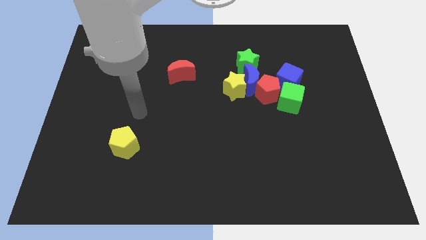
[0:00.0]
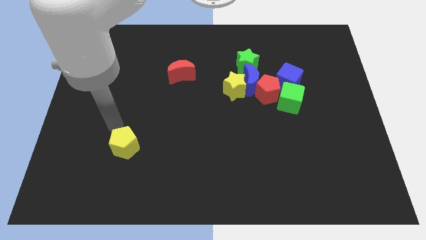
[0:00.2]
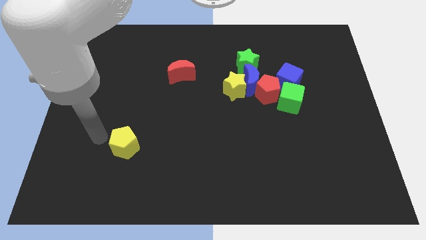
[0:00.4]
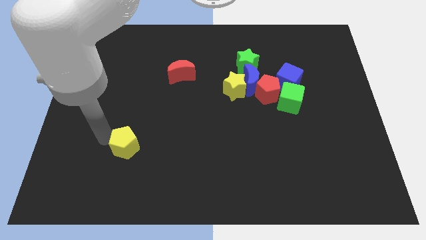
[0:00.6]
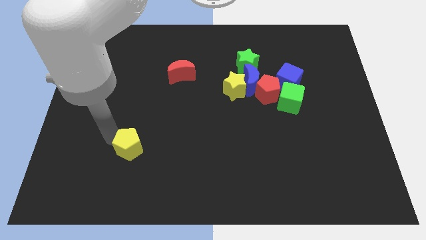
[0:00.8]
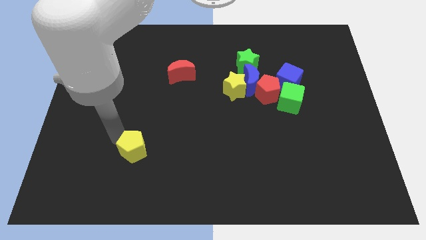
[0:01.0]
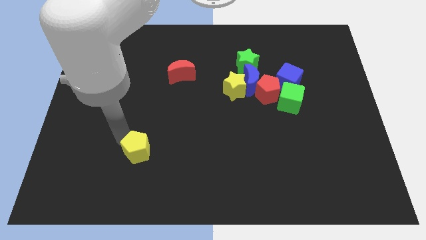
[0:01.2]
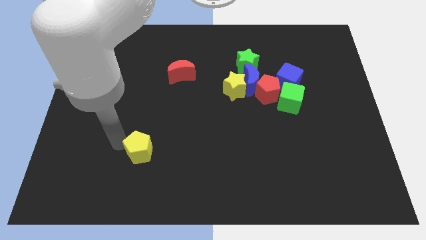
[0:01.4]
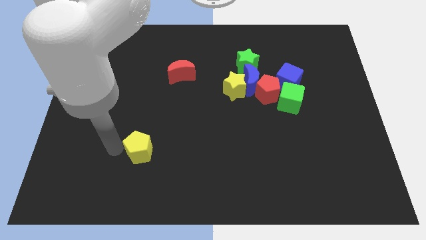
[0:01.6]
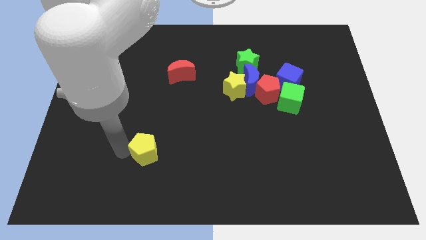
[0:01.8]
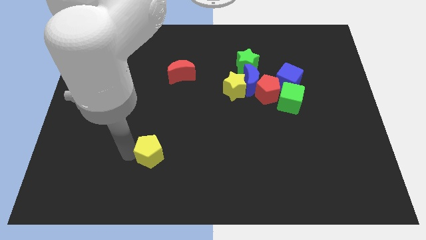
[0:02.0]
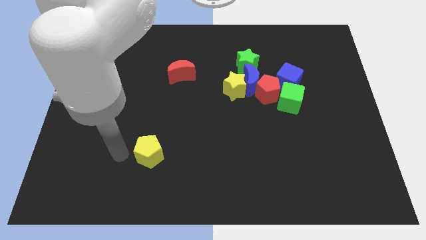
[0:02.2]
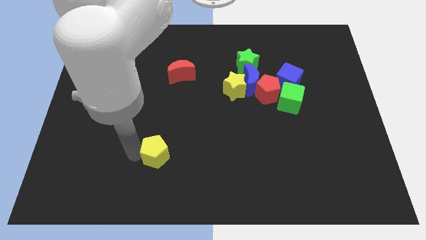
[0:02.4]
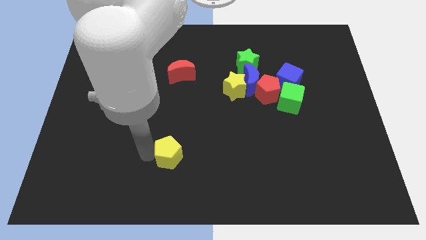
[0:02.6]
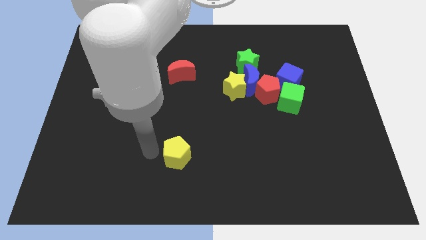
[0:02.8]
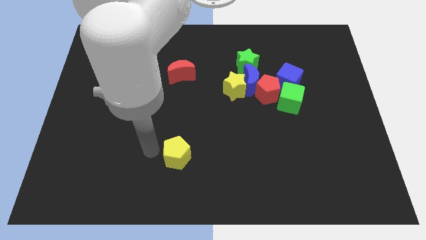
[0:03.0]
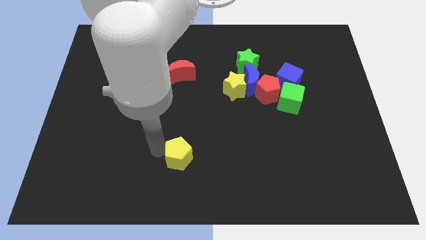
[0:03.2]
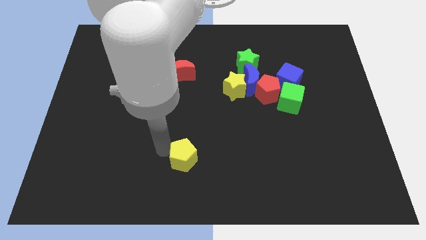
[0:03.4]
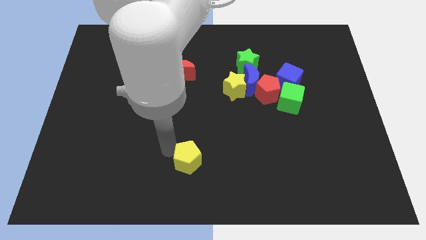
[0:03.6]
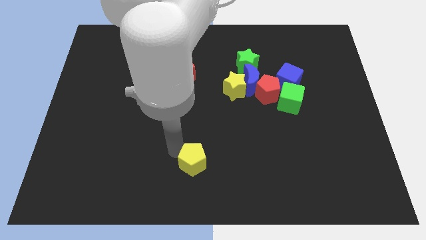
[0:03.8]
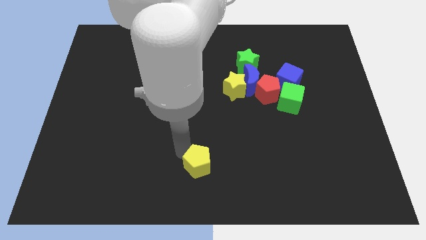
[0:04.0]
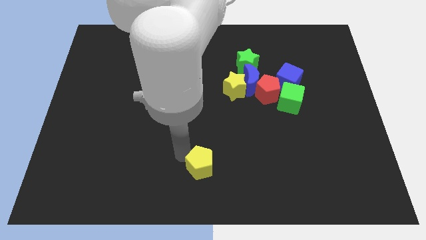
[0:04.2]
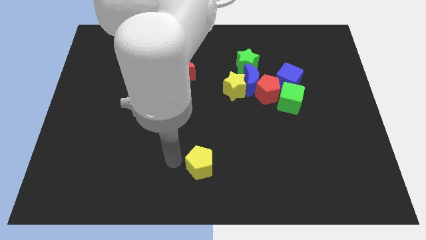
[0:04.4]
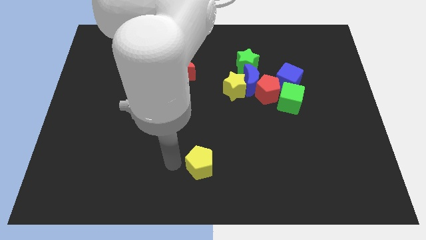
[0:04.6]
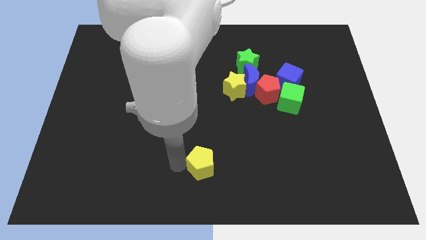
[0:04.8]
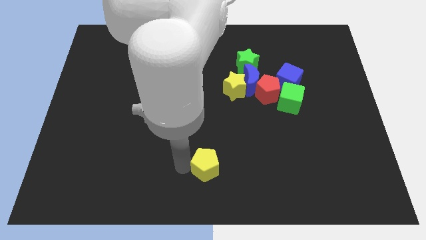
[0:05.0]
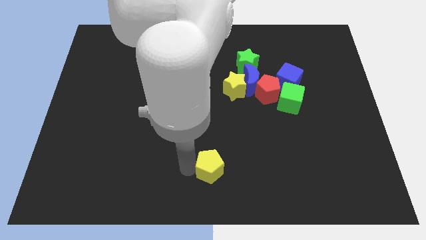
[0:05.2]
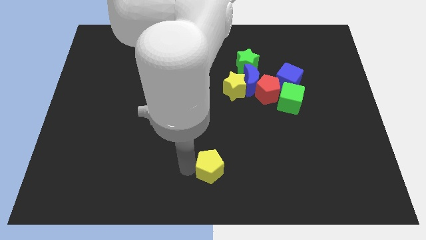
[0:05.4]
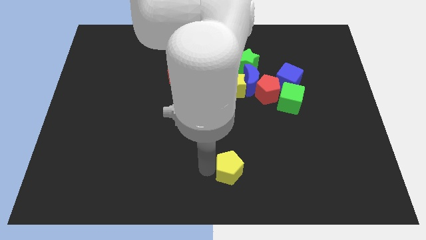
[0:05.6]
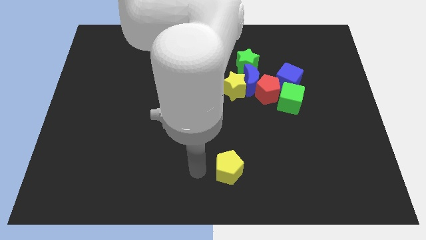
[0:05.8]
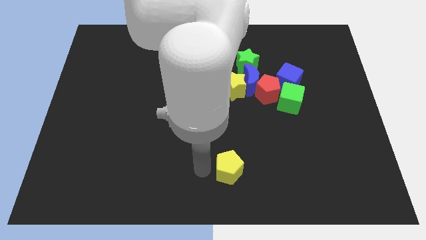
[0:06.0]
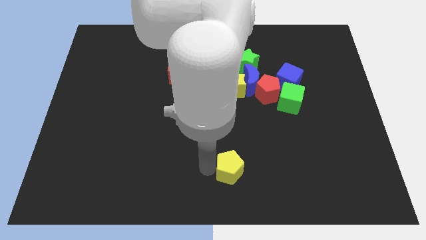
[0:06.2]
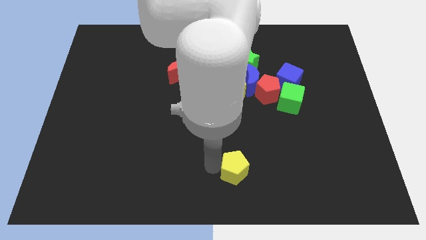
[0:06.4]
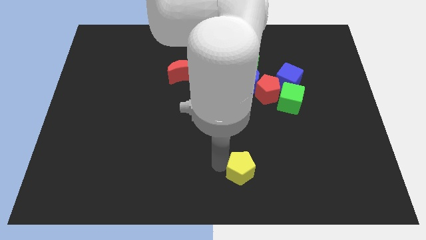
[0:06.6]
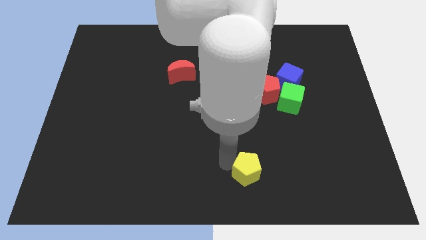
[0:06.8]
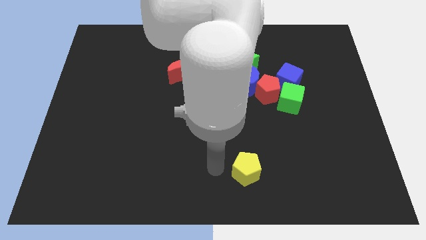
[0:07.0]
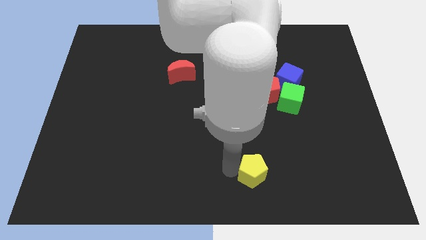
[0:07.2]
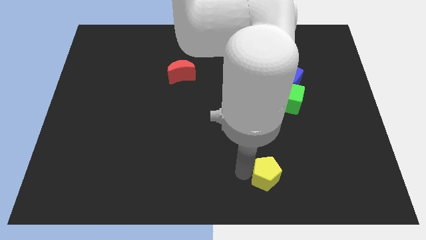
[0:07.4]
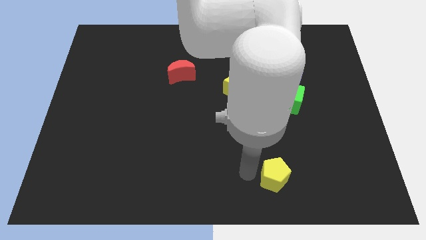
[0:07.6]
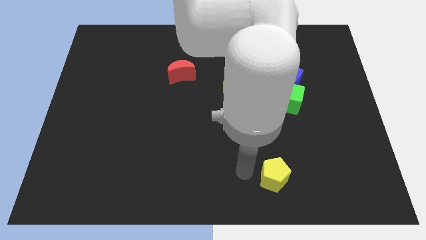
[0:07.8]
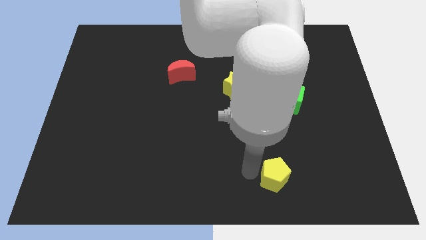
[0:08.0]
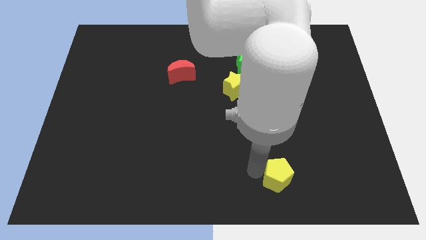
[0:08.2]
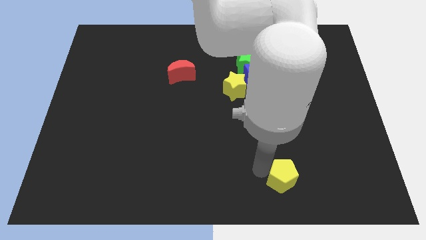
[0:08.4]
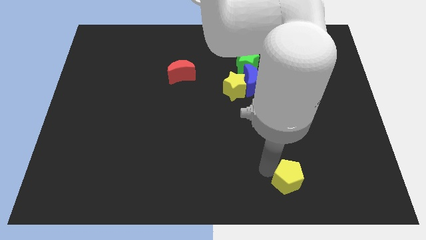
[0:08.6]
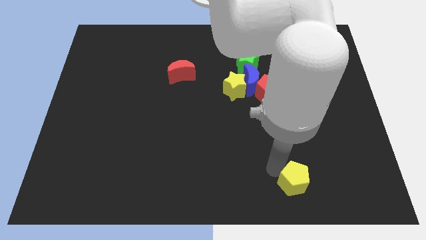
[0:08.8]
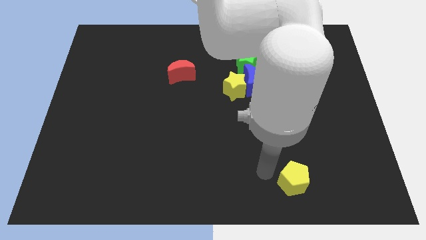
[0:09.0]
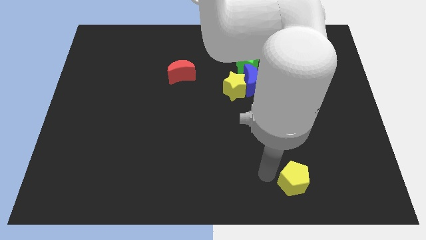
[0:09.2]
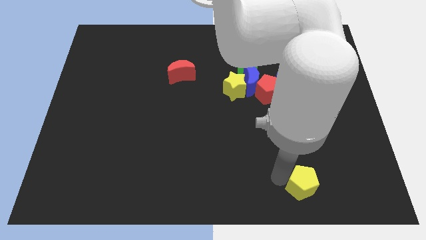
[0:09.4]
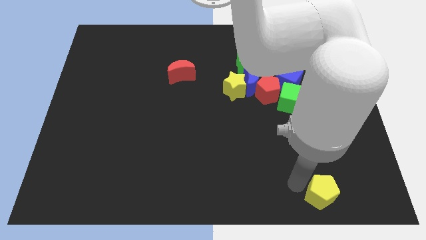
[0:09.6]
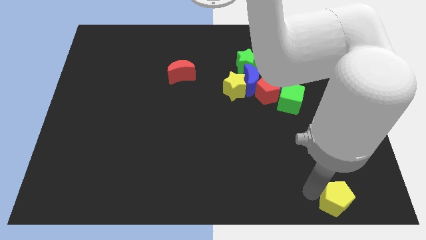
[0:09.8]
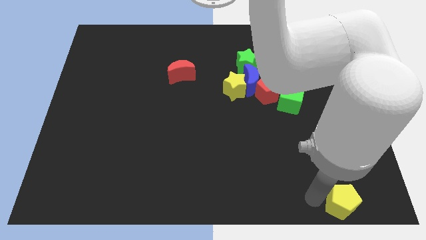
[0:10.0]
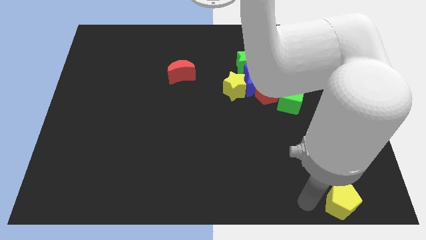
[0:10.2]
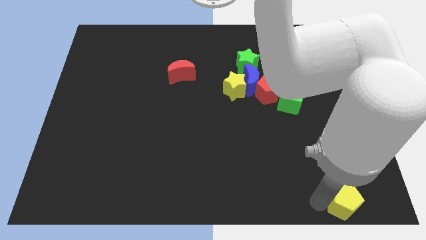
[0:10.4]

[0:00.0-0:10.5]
move the yellow pentagon to the lower right corner

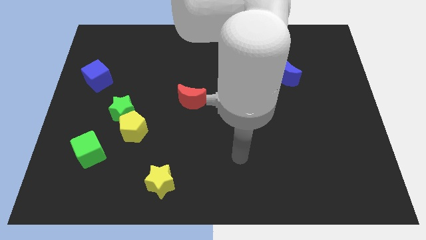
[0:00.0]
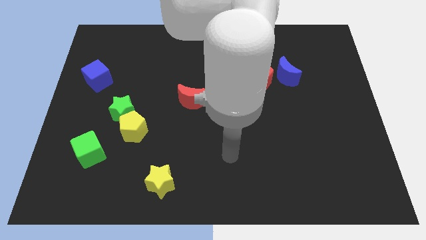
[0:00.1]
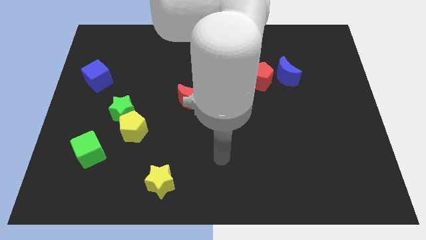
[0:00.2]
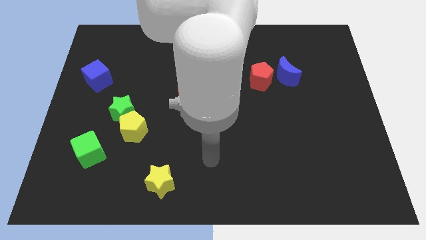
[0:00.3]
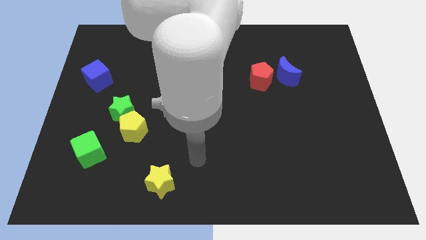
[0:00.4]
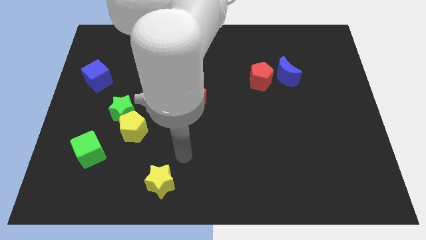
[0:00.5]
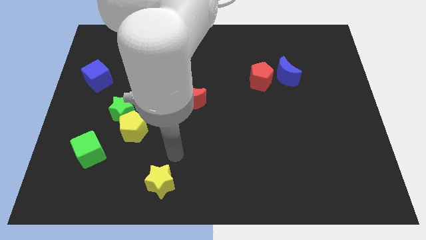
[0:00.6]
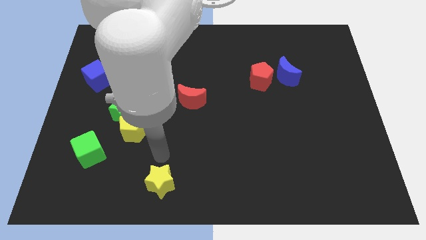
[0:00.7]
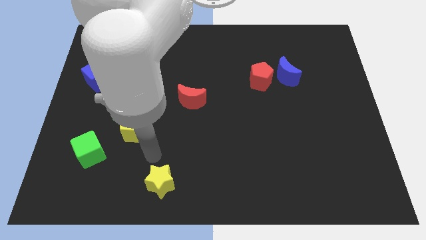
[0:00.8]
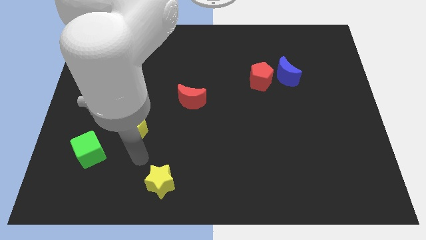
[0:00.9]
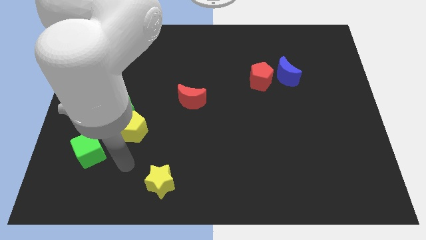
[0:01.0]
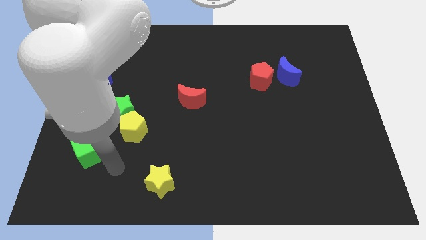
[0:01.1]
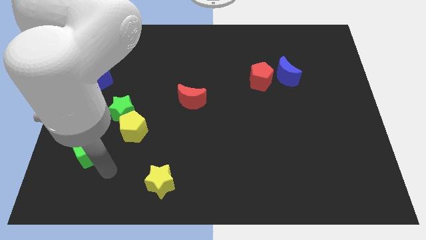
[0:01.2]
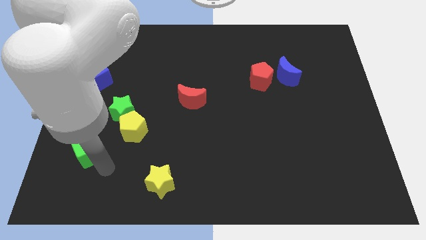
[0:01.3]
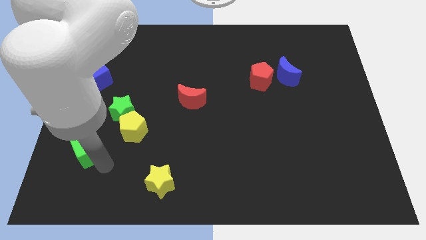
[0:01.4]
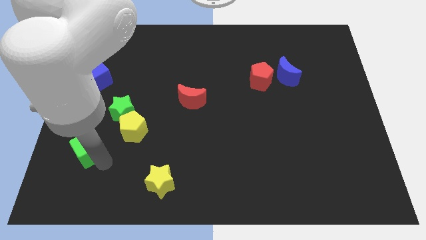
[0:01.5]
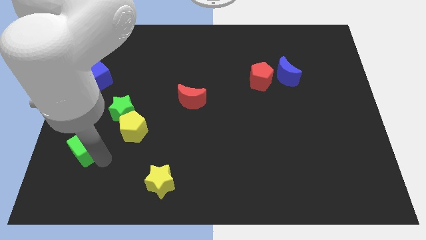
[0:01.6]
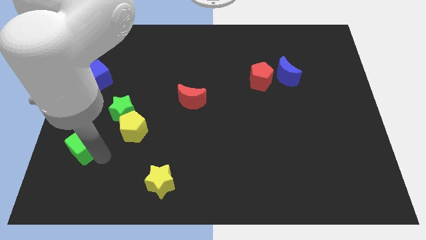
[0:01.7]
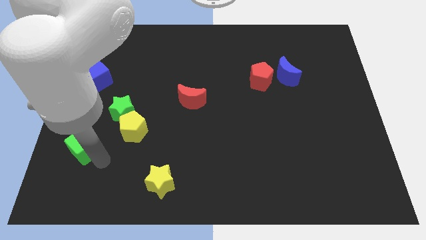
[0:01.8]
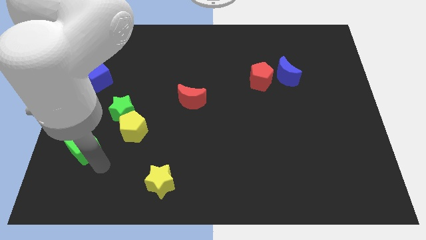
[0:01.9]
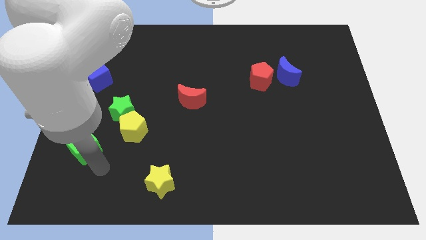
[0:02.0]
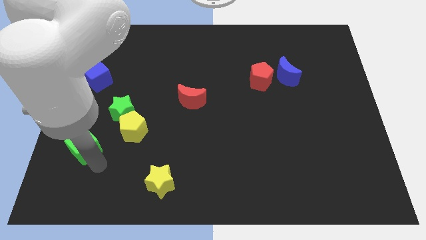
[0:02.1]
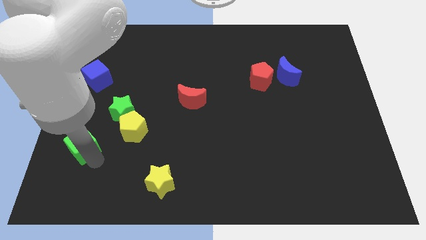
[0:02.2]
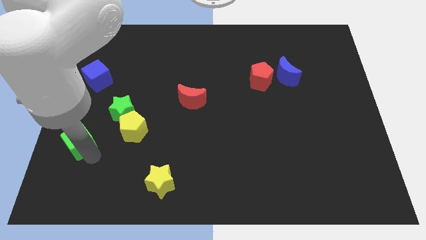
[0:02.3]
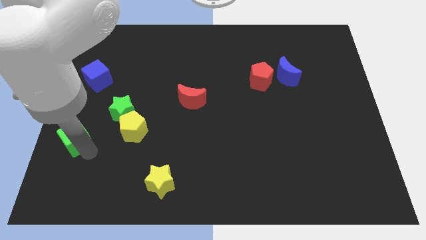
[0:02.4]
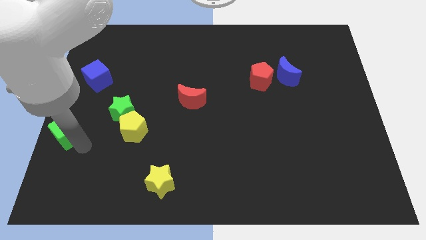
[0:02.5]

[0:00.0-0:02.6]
move the green cube to the left side of the board
